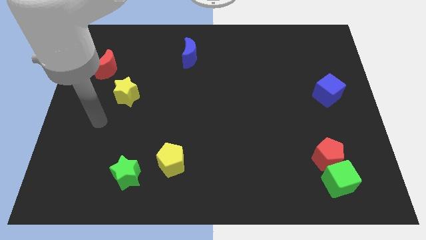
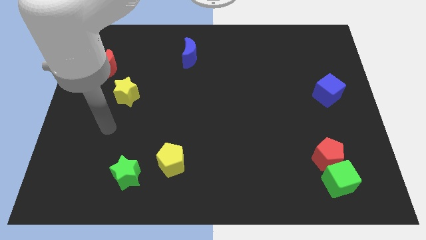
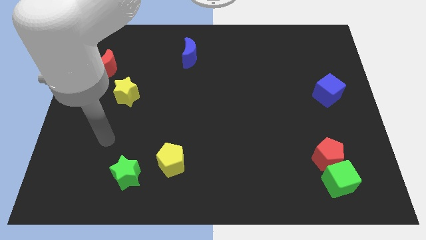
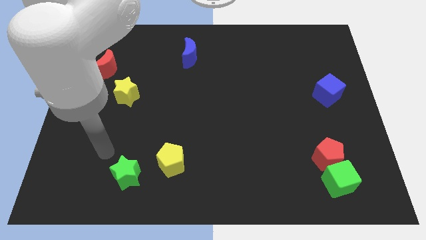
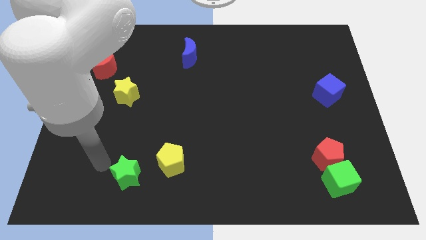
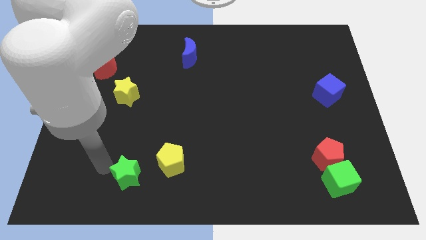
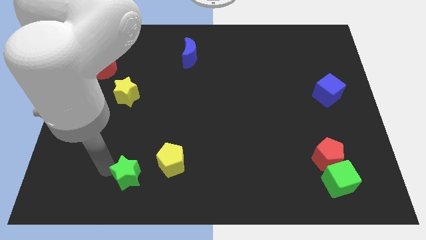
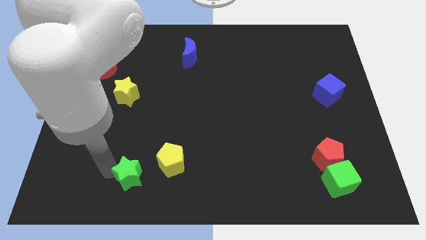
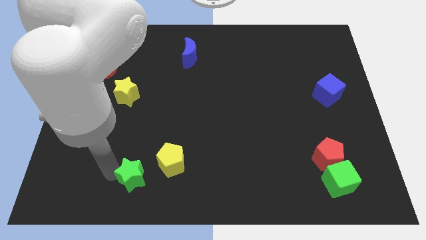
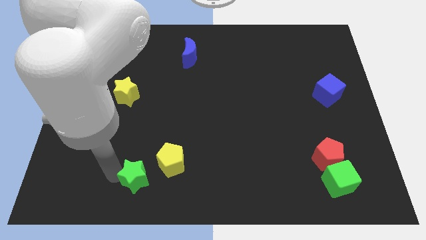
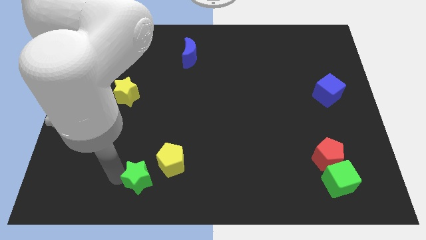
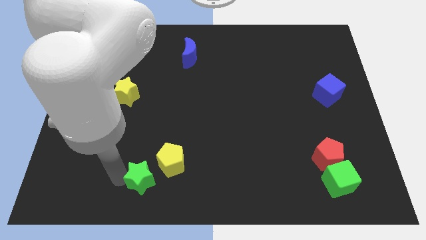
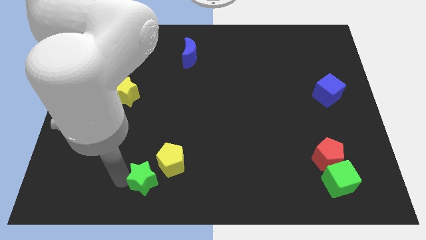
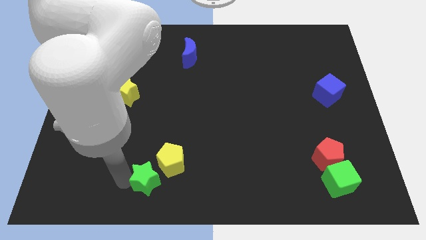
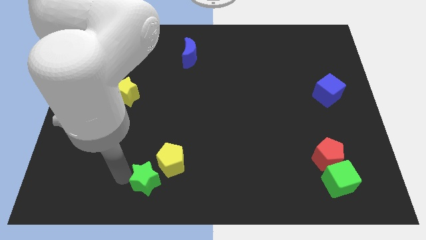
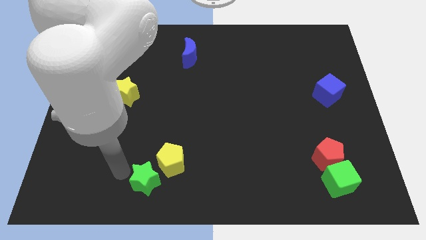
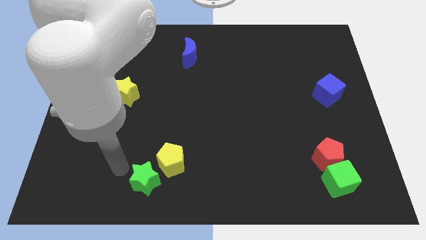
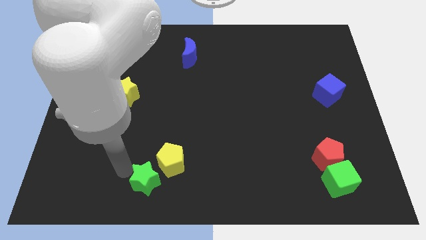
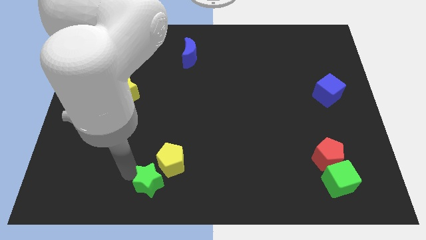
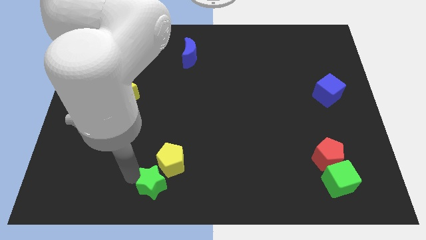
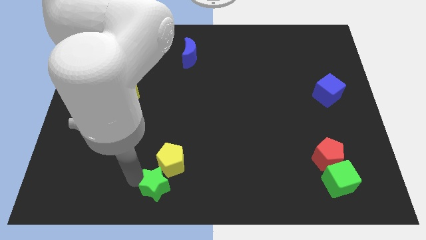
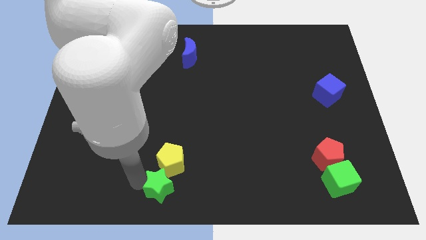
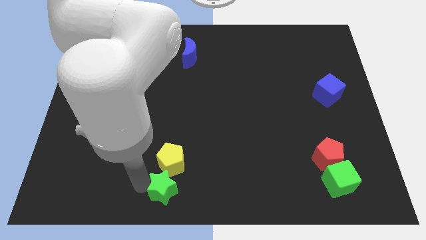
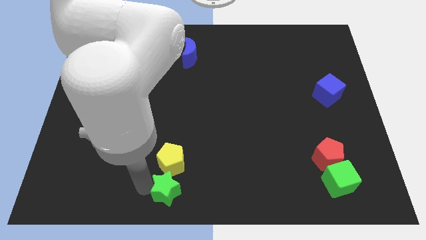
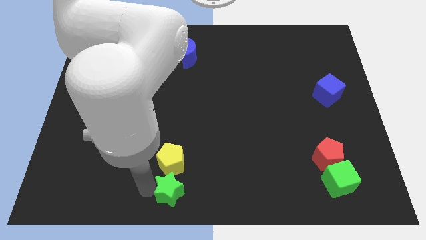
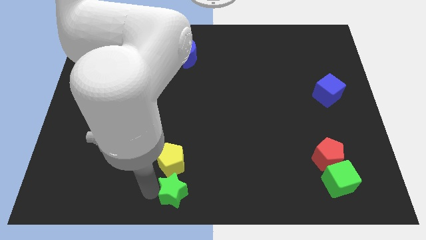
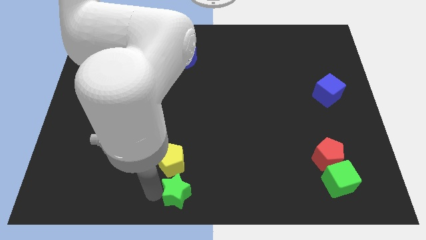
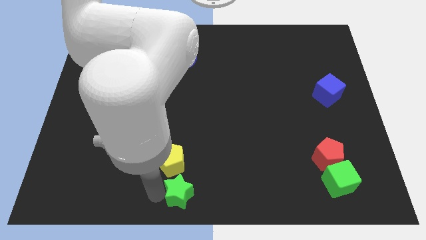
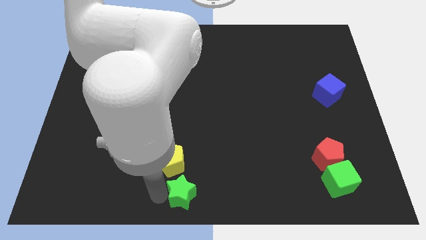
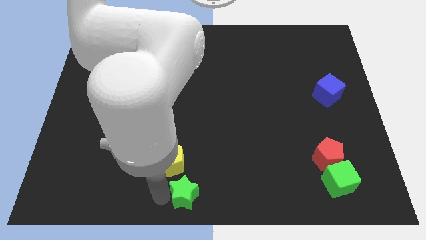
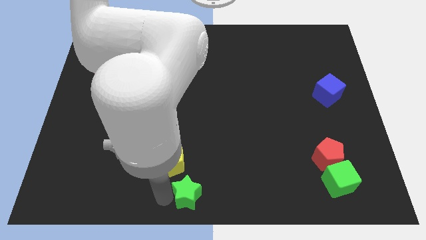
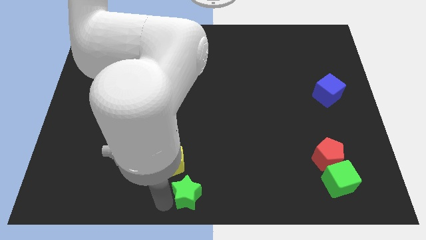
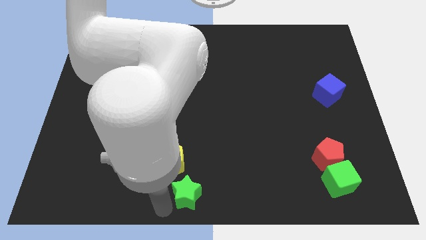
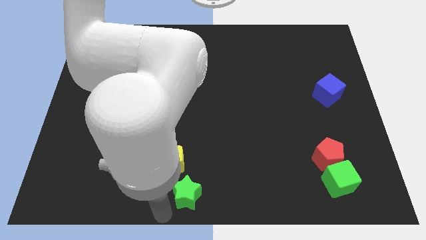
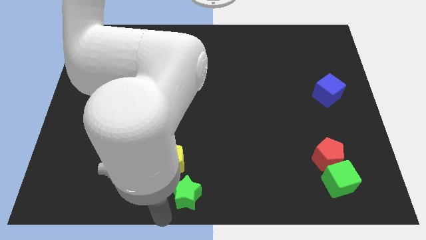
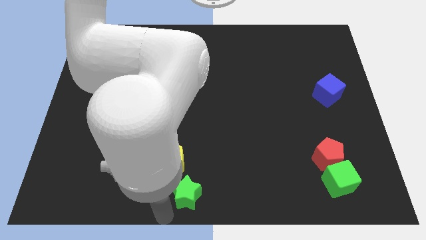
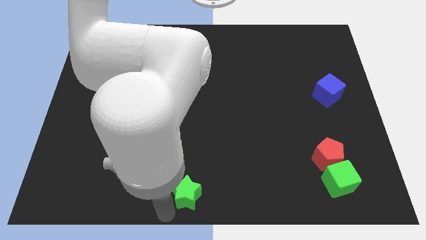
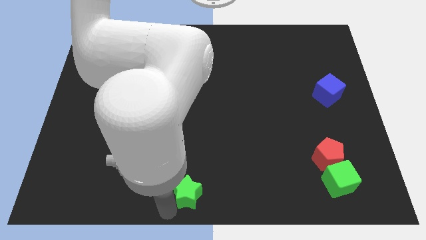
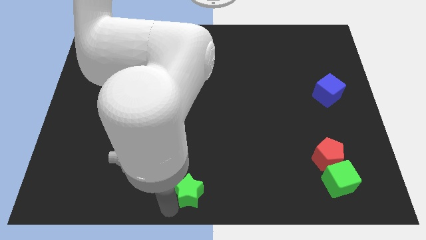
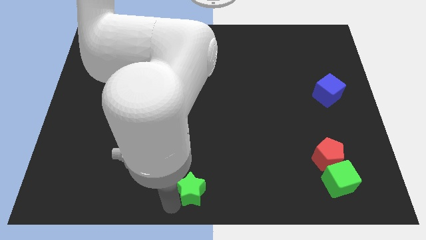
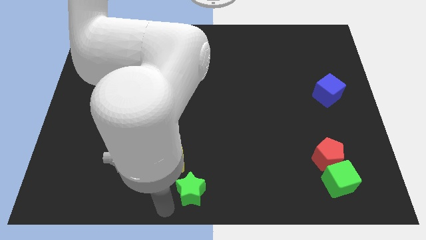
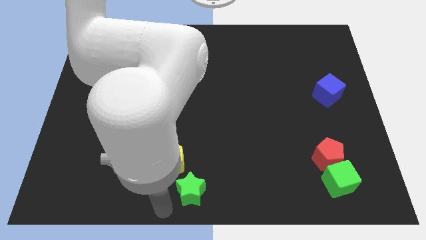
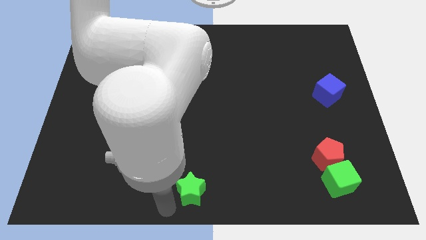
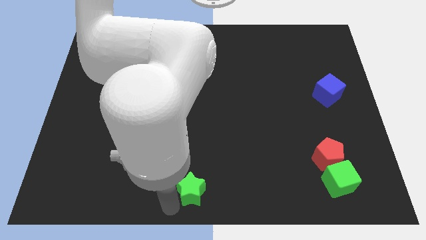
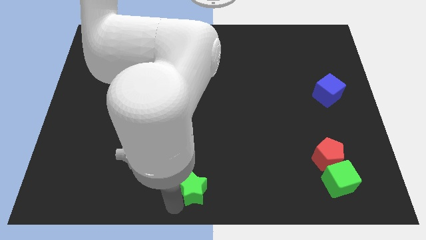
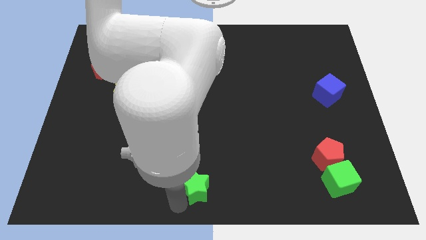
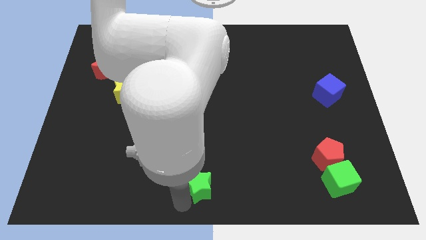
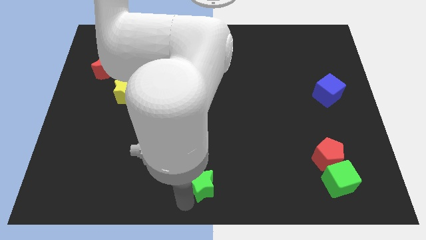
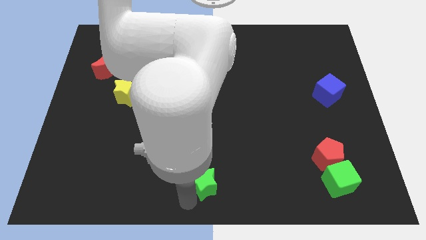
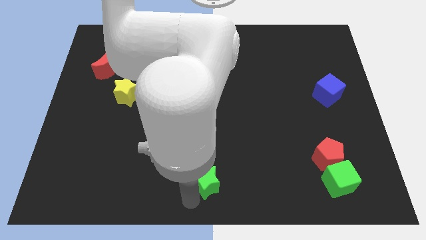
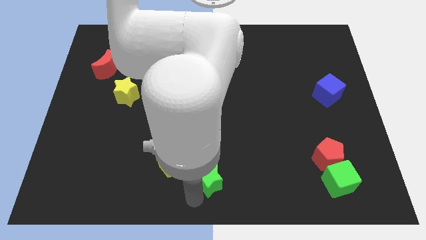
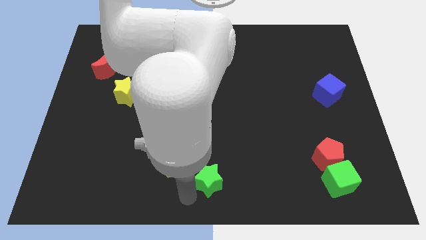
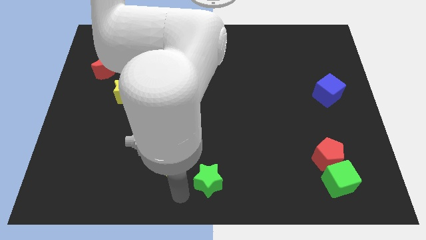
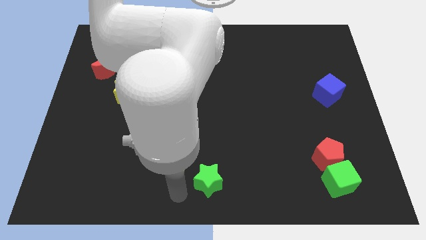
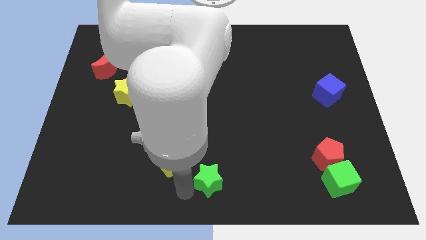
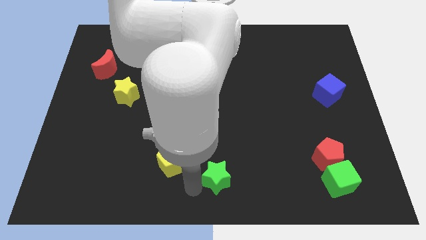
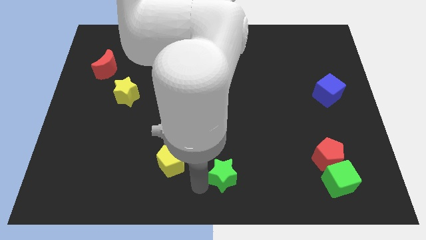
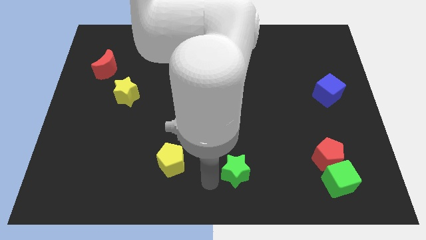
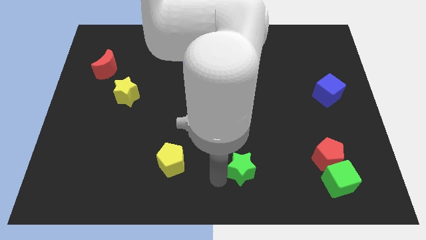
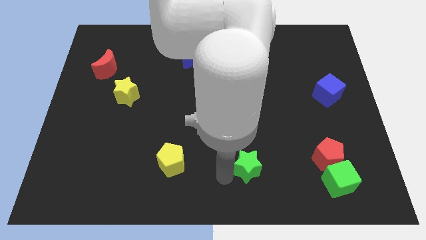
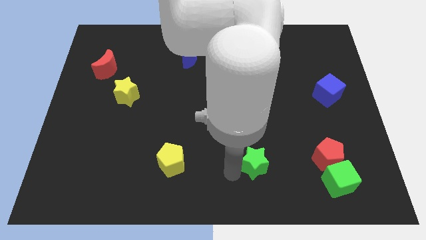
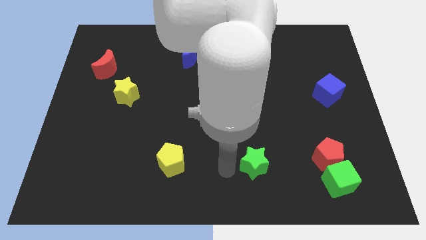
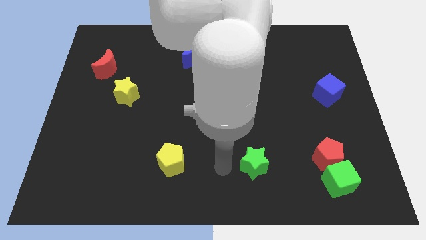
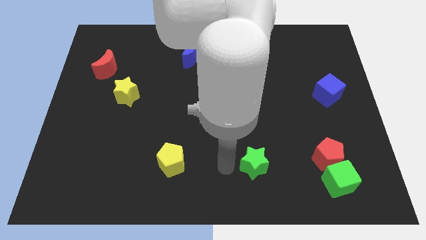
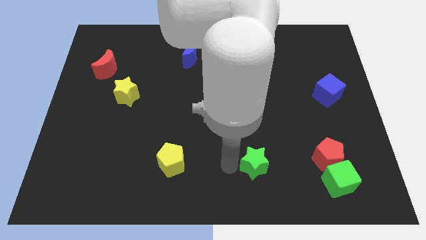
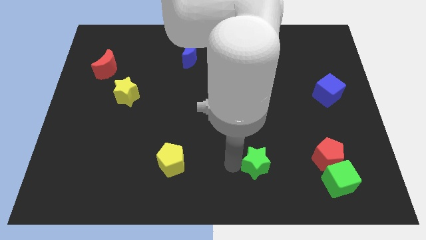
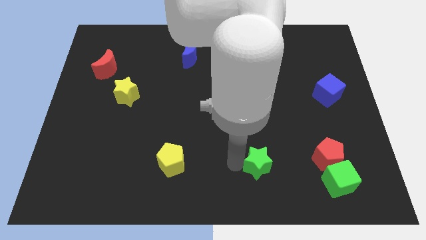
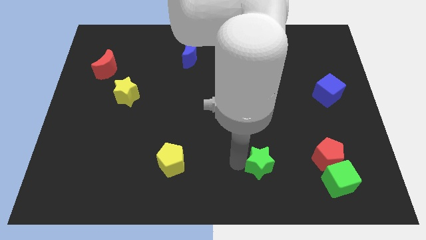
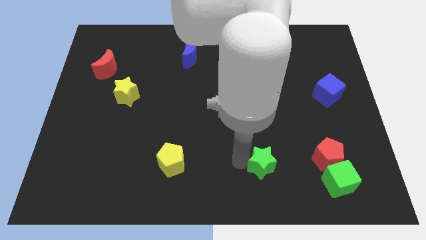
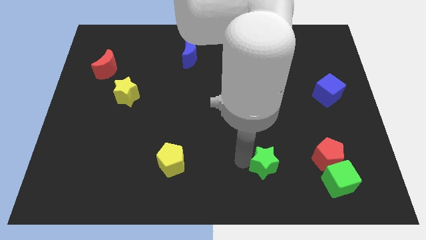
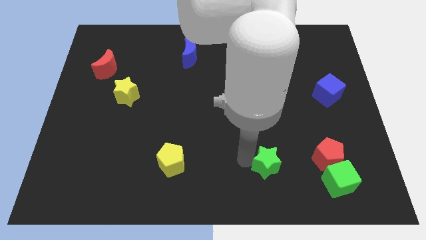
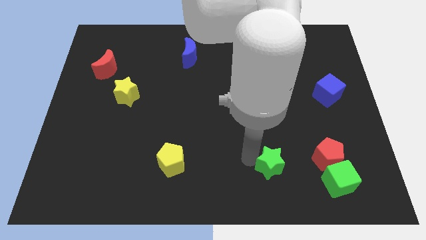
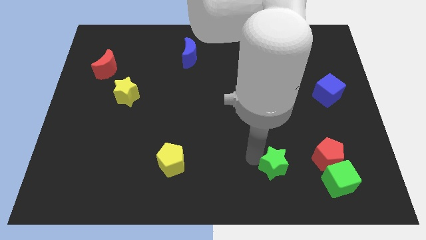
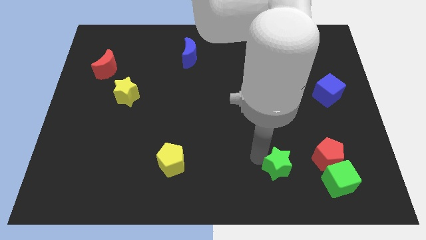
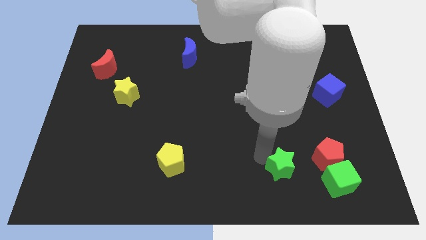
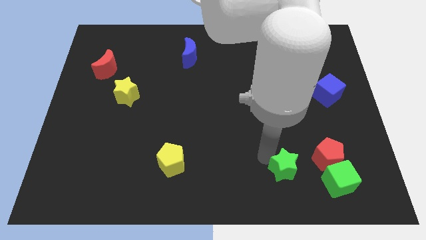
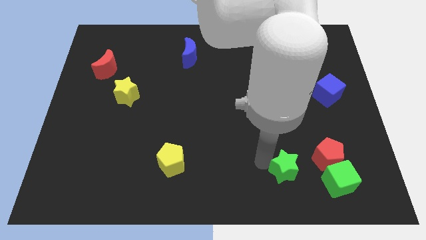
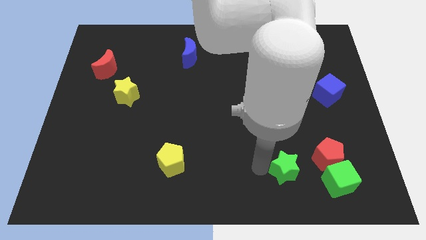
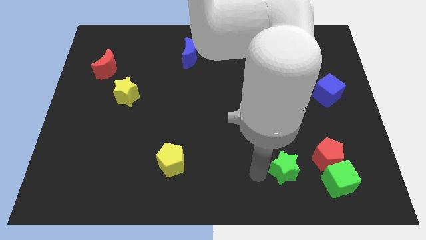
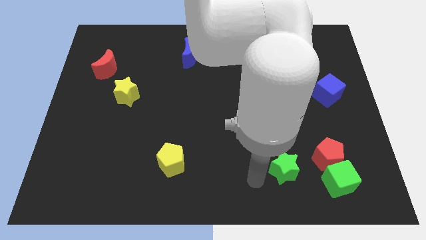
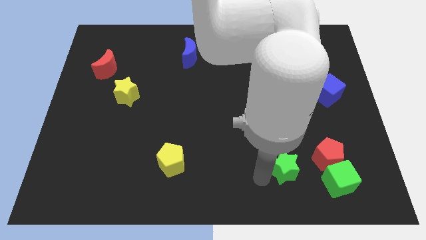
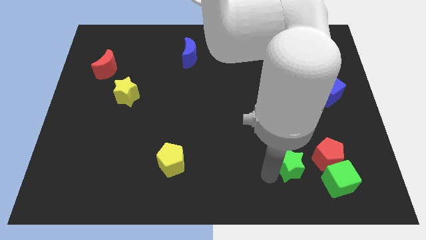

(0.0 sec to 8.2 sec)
slide the green star to the top left of the green cube
